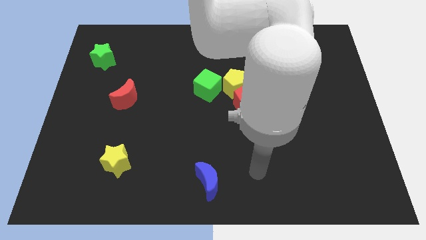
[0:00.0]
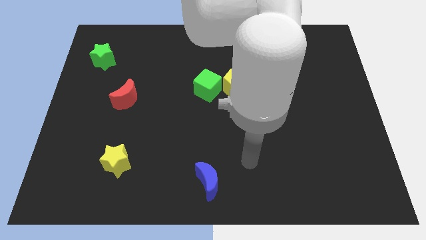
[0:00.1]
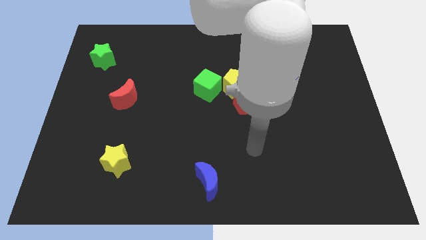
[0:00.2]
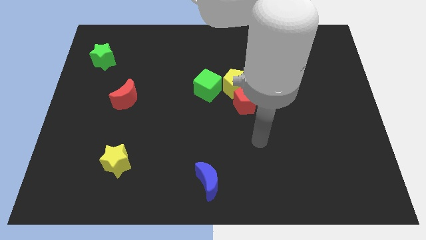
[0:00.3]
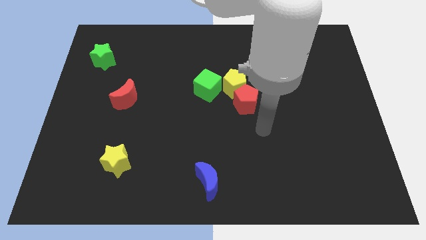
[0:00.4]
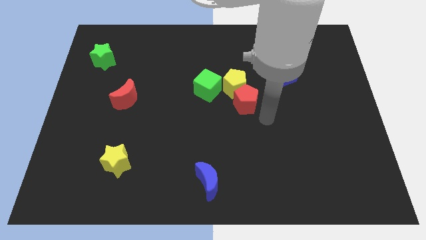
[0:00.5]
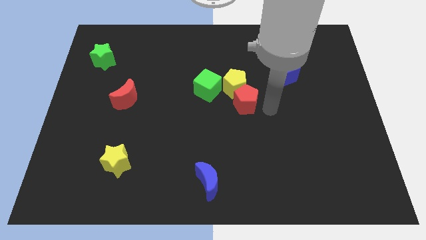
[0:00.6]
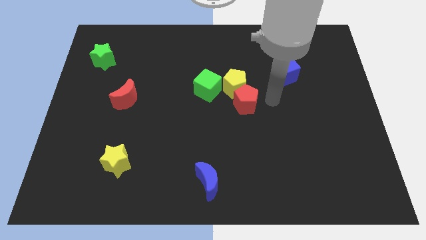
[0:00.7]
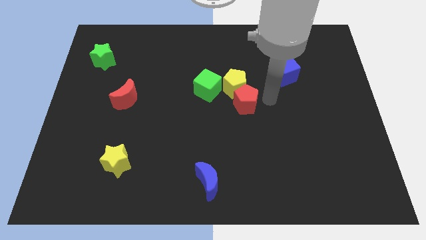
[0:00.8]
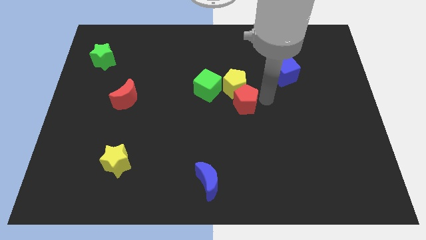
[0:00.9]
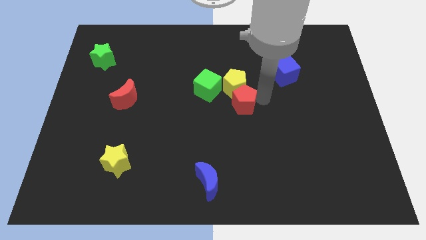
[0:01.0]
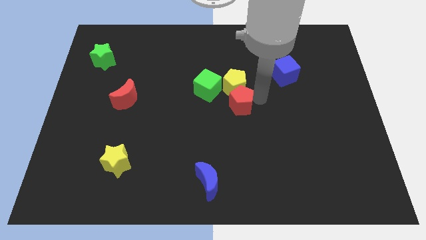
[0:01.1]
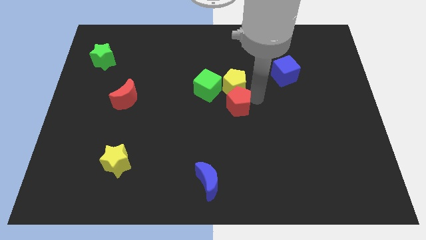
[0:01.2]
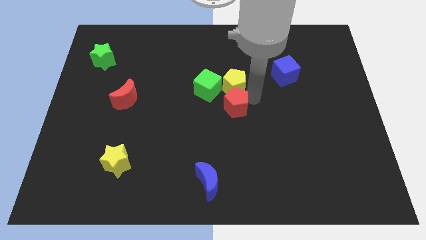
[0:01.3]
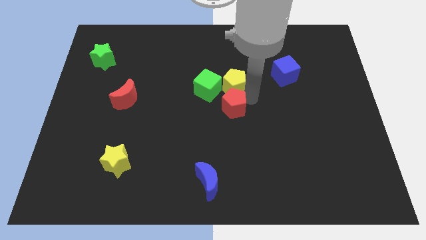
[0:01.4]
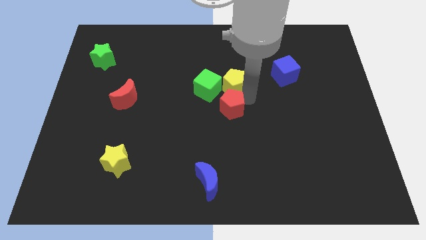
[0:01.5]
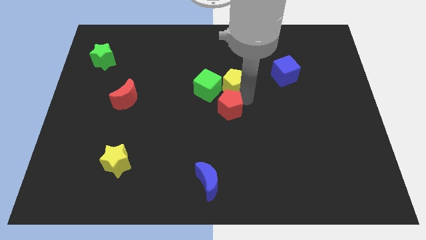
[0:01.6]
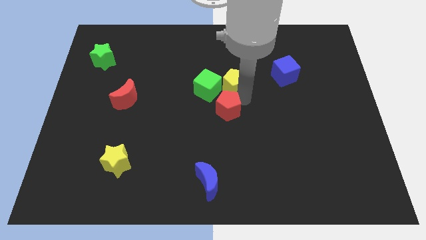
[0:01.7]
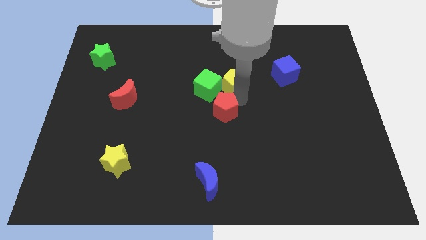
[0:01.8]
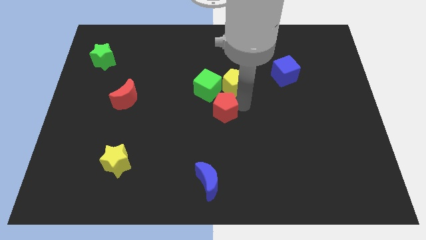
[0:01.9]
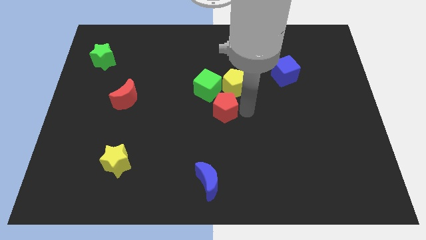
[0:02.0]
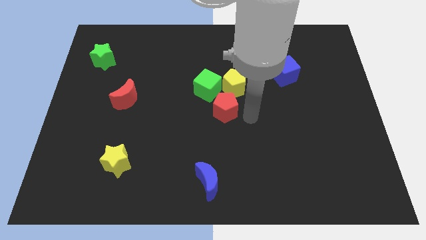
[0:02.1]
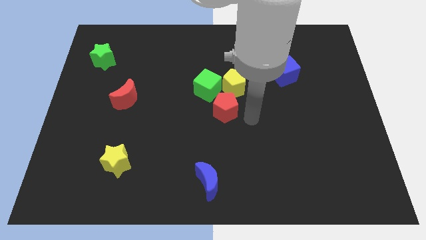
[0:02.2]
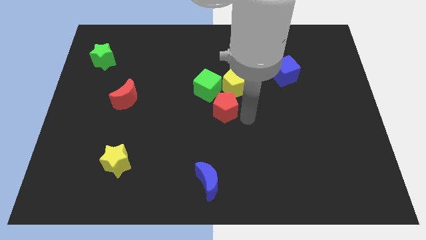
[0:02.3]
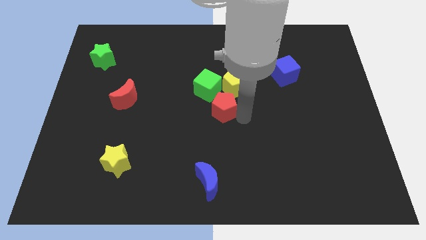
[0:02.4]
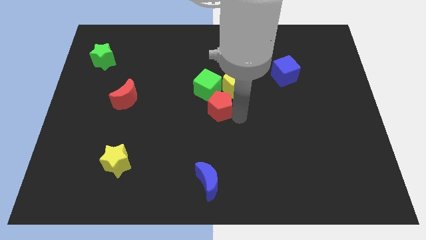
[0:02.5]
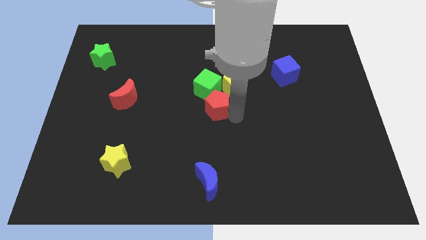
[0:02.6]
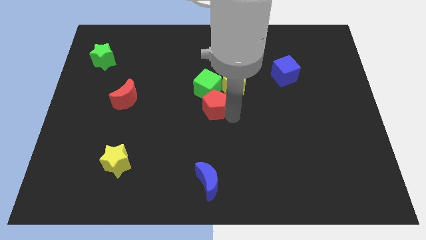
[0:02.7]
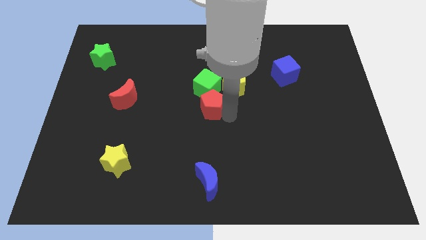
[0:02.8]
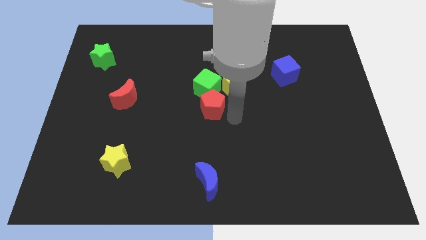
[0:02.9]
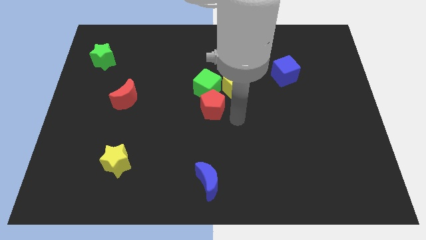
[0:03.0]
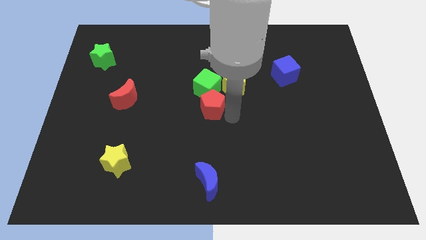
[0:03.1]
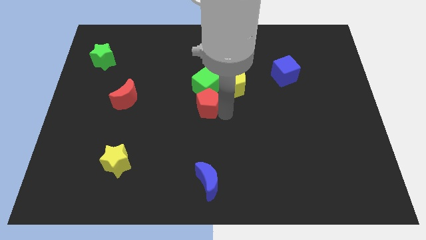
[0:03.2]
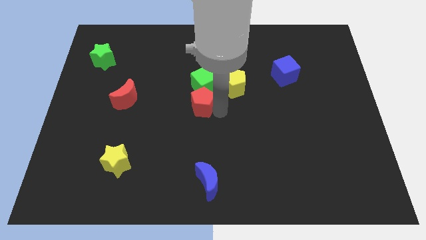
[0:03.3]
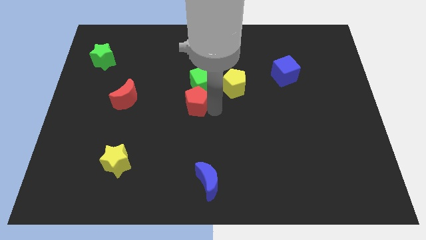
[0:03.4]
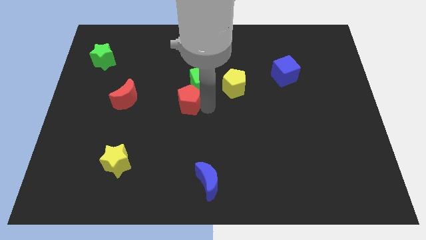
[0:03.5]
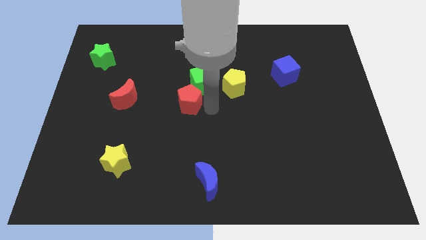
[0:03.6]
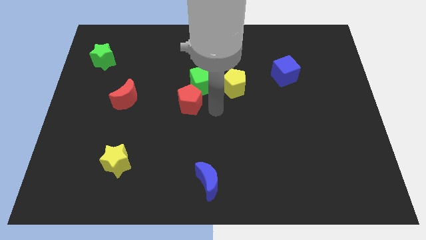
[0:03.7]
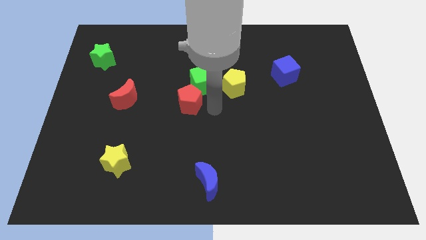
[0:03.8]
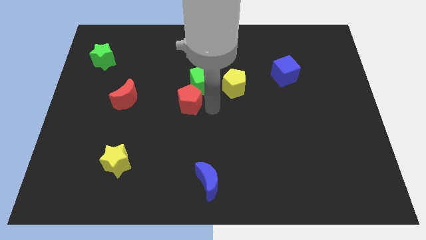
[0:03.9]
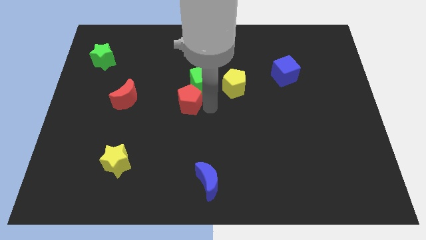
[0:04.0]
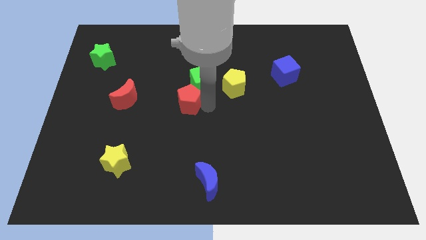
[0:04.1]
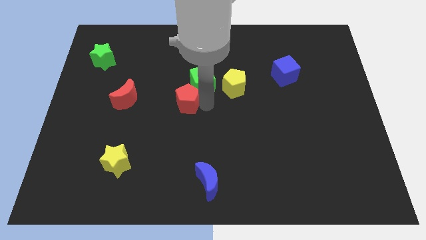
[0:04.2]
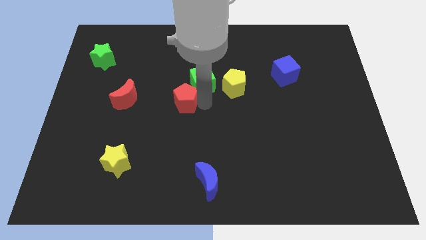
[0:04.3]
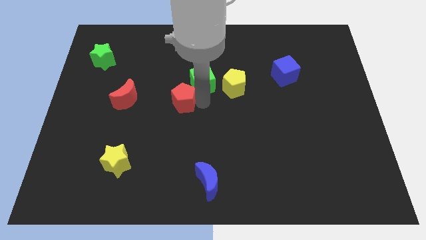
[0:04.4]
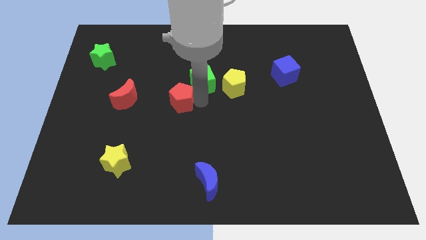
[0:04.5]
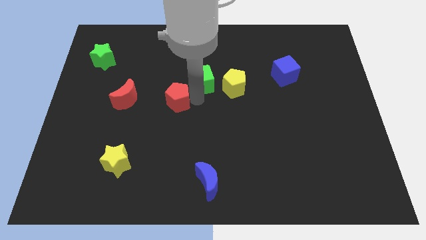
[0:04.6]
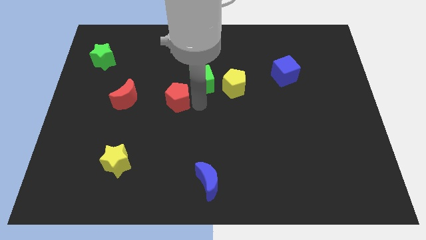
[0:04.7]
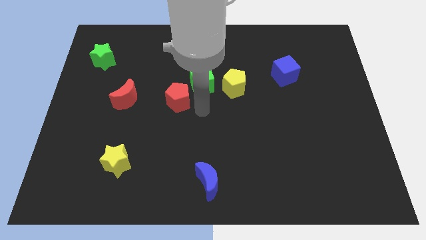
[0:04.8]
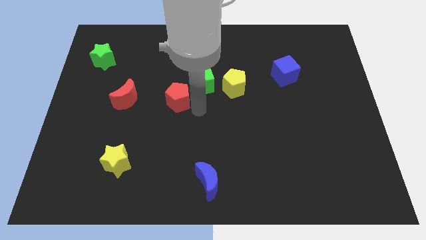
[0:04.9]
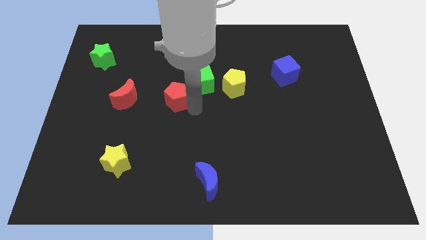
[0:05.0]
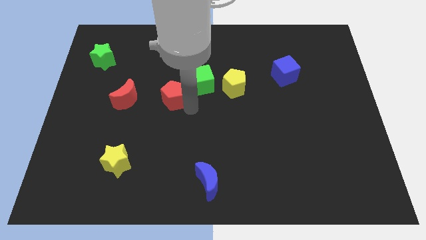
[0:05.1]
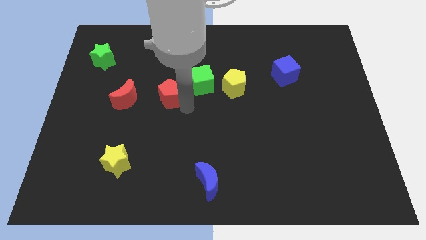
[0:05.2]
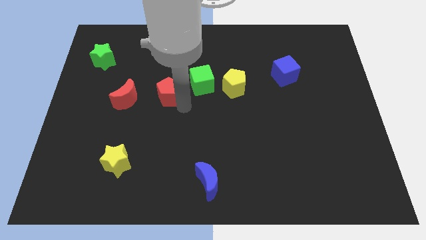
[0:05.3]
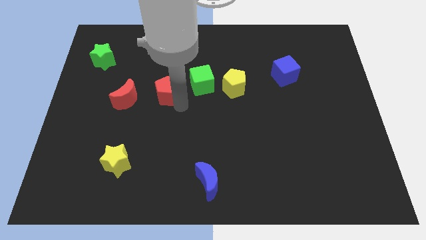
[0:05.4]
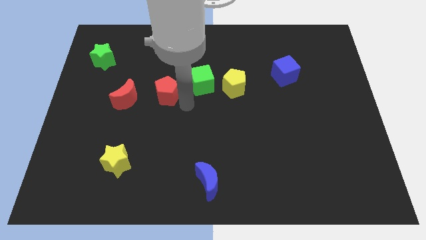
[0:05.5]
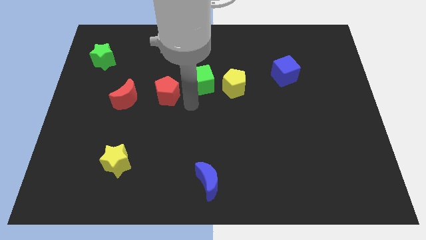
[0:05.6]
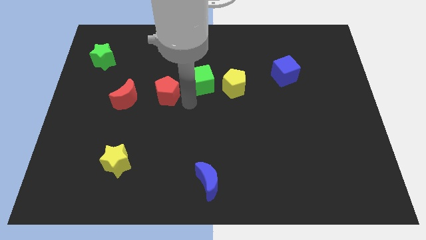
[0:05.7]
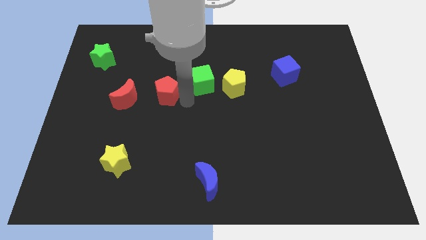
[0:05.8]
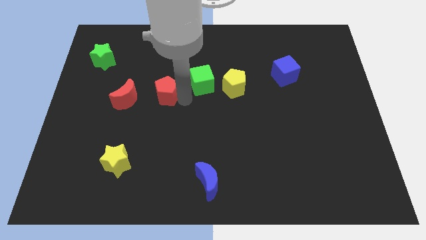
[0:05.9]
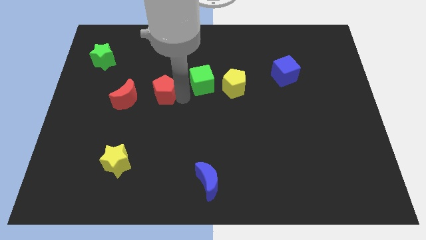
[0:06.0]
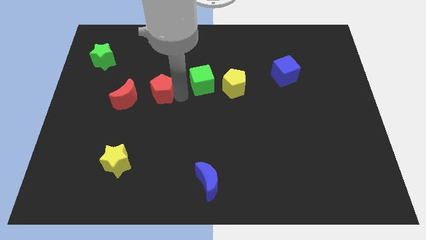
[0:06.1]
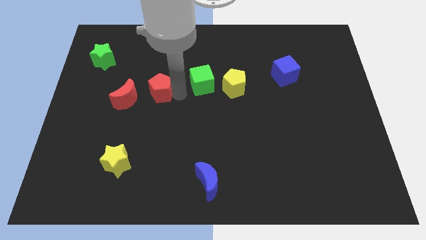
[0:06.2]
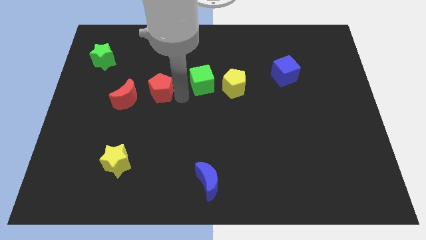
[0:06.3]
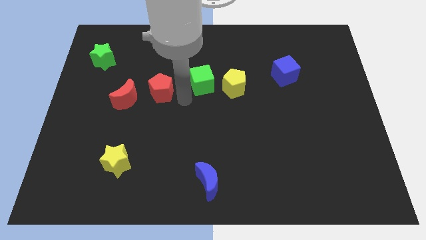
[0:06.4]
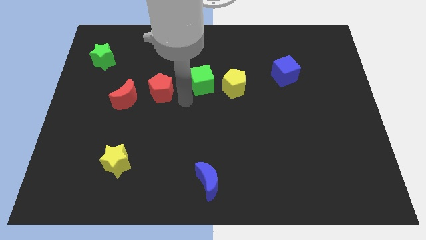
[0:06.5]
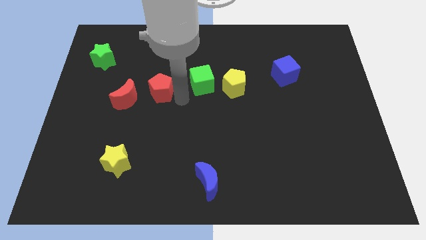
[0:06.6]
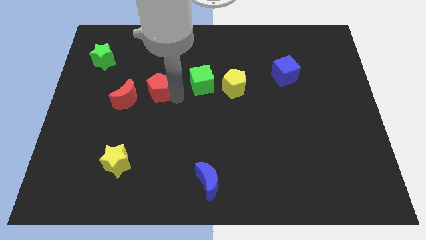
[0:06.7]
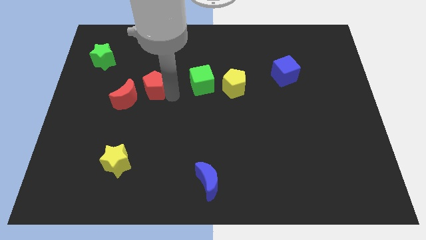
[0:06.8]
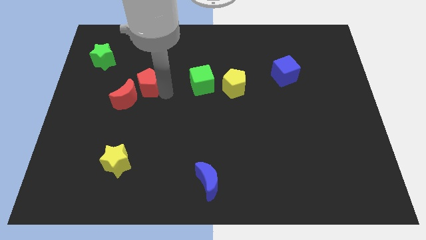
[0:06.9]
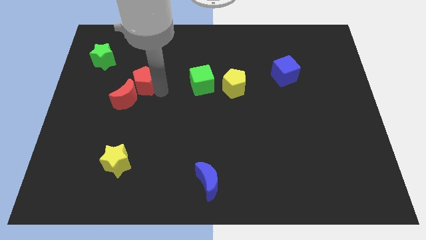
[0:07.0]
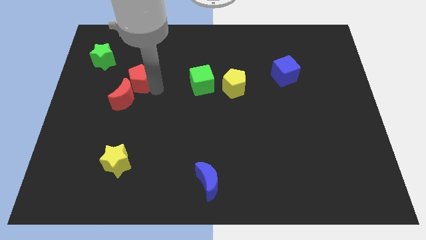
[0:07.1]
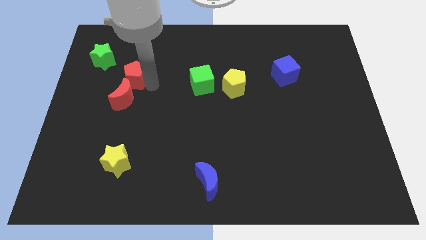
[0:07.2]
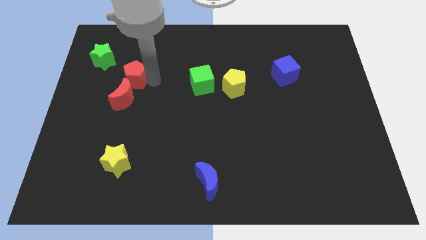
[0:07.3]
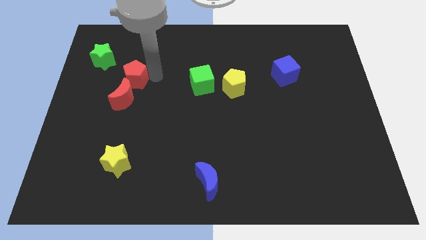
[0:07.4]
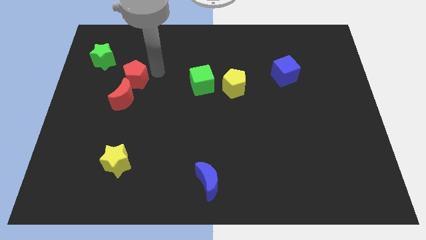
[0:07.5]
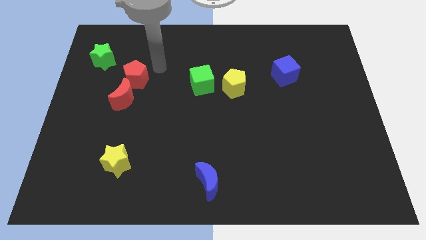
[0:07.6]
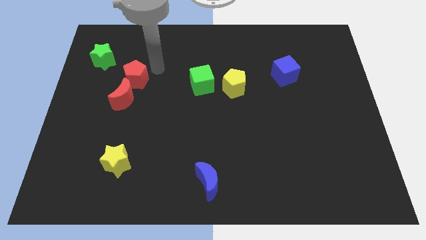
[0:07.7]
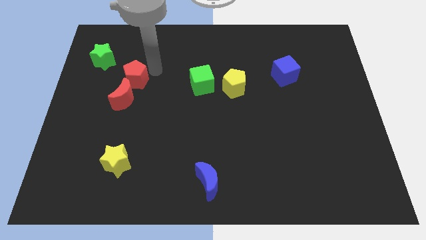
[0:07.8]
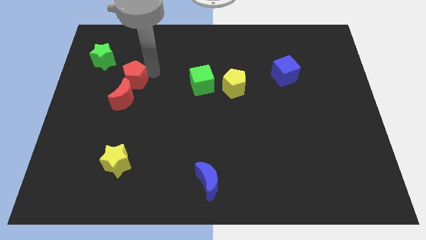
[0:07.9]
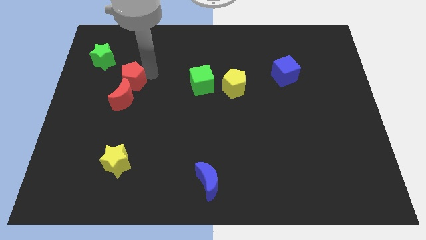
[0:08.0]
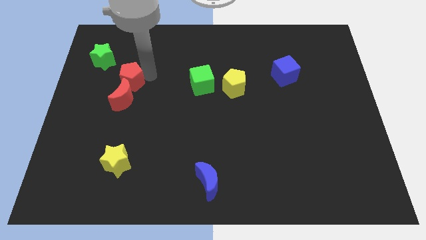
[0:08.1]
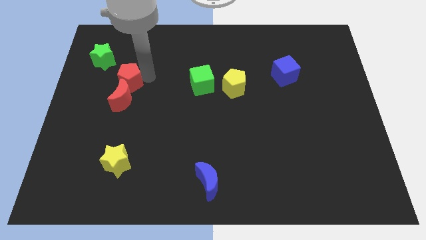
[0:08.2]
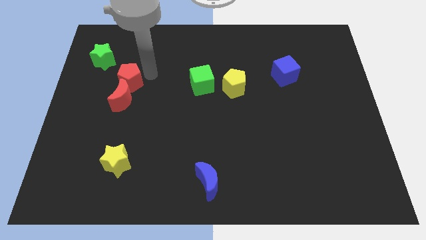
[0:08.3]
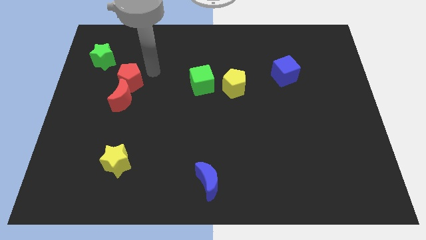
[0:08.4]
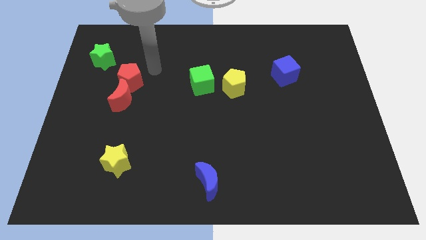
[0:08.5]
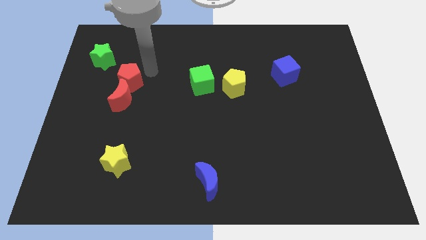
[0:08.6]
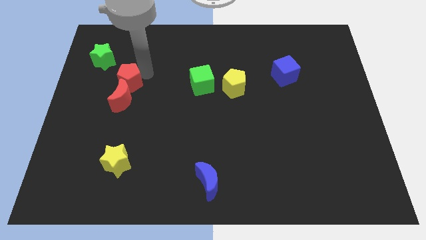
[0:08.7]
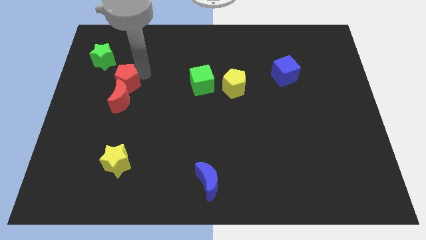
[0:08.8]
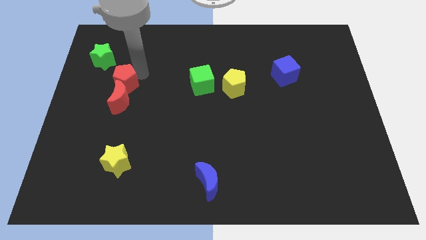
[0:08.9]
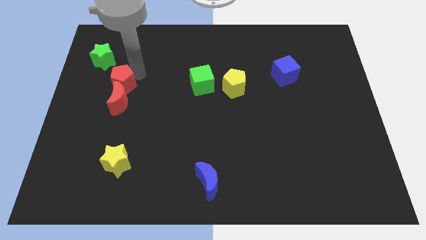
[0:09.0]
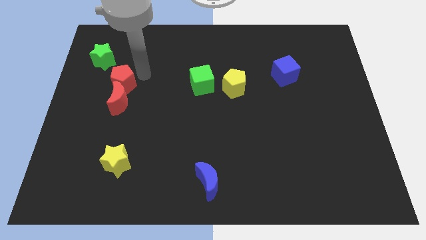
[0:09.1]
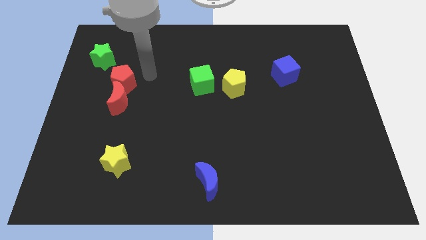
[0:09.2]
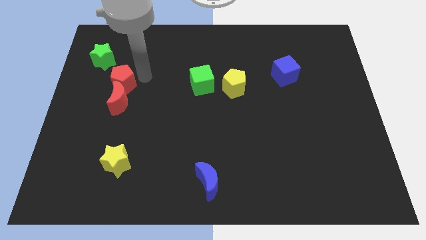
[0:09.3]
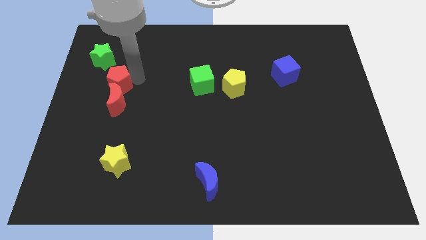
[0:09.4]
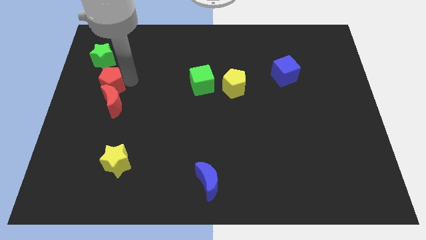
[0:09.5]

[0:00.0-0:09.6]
move the red pentagon to the bottom of the green star
